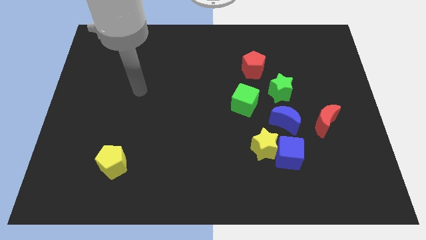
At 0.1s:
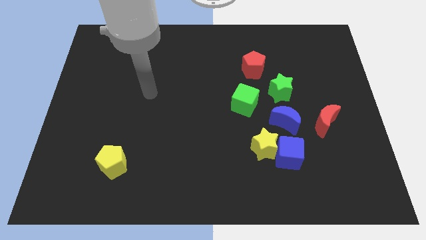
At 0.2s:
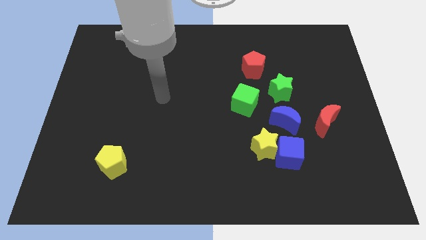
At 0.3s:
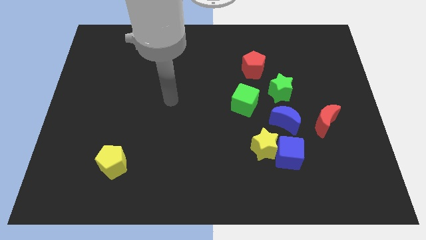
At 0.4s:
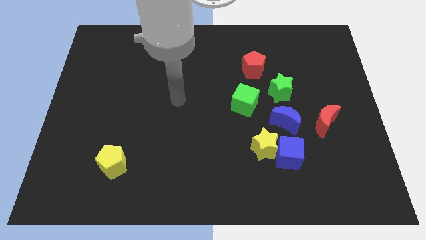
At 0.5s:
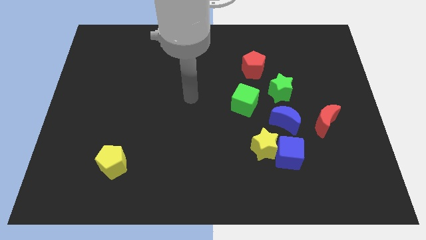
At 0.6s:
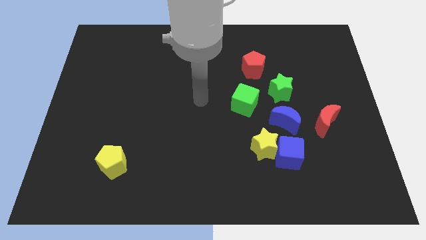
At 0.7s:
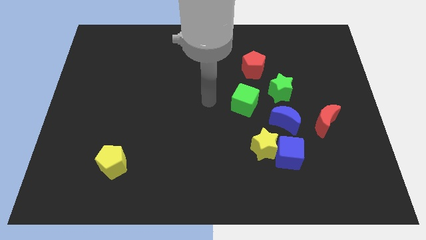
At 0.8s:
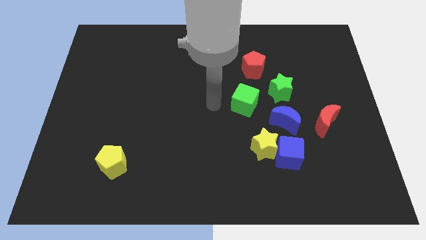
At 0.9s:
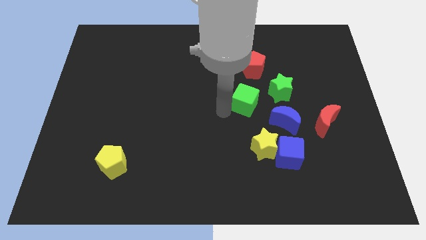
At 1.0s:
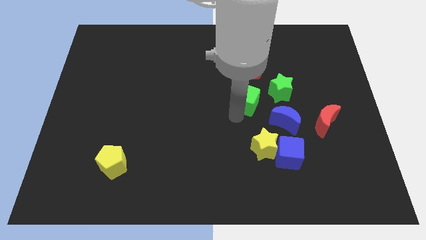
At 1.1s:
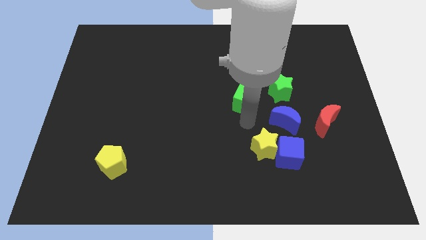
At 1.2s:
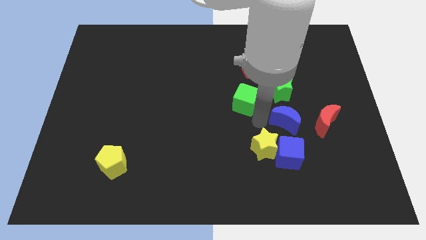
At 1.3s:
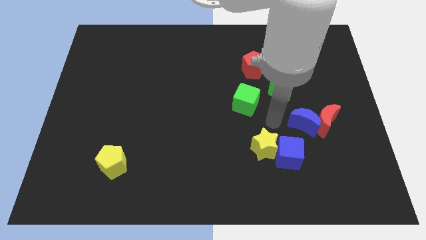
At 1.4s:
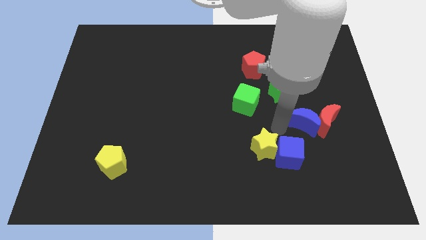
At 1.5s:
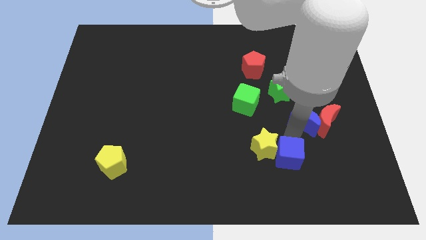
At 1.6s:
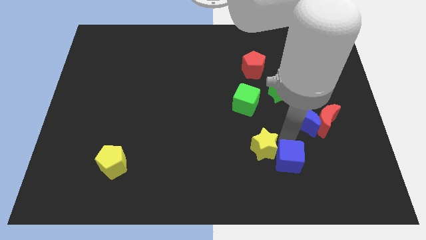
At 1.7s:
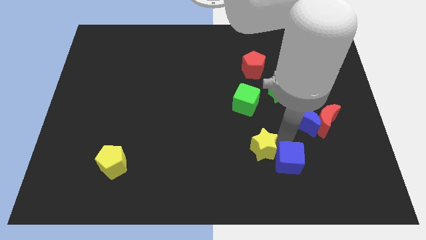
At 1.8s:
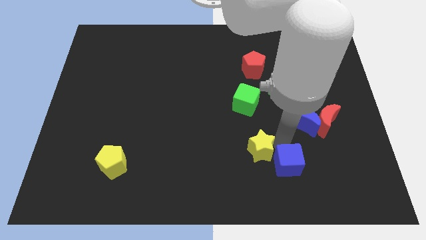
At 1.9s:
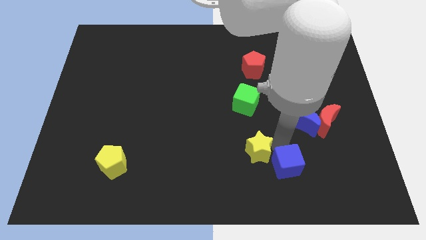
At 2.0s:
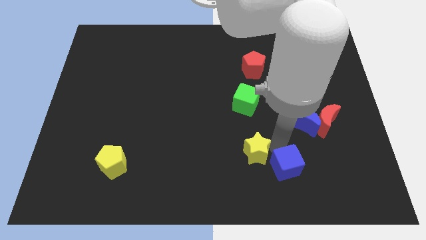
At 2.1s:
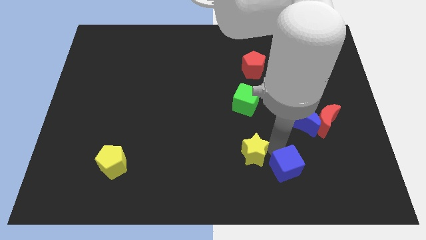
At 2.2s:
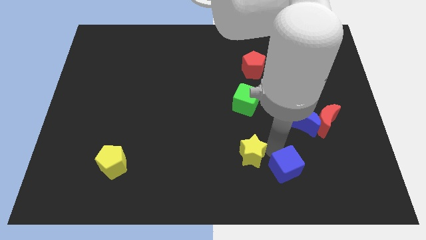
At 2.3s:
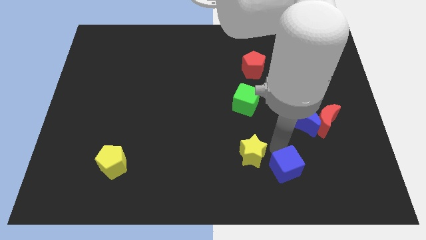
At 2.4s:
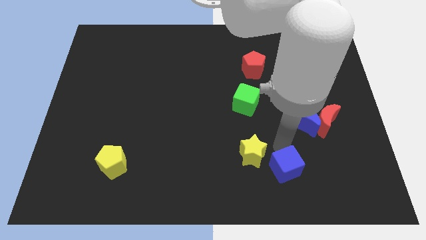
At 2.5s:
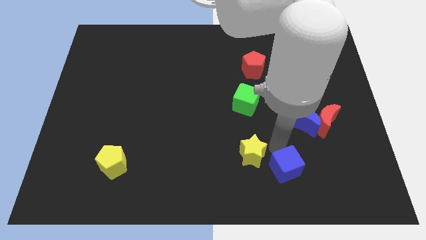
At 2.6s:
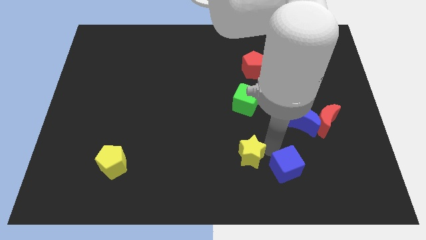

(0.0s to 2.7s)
move the yellow star away from the blue cube and blue moon

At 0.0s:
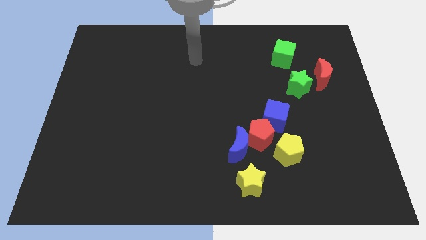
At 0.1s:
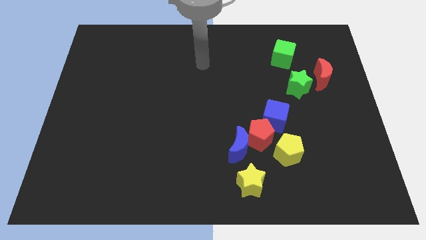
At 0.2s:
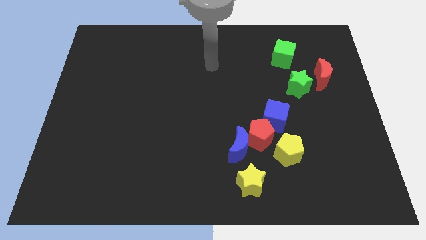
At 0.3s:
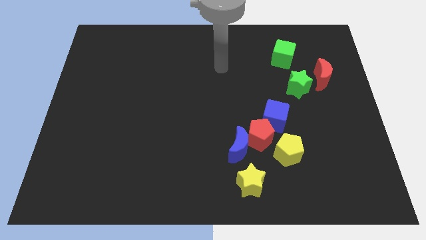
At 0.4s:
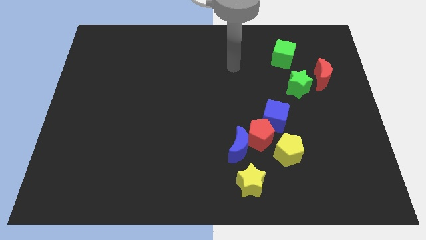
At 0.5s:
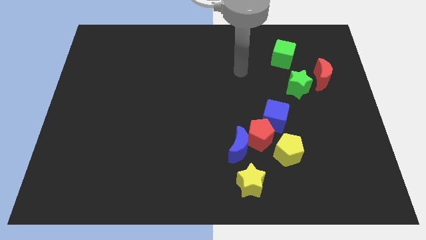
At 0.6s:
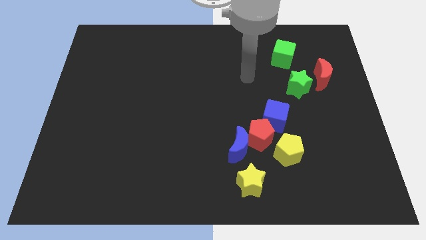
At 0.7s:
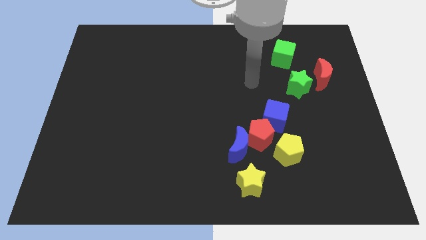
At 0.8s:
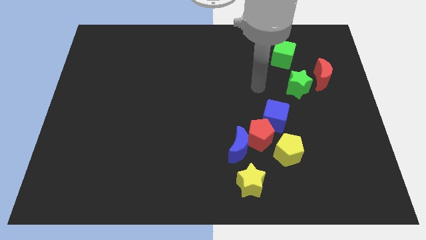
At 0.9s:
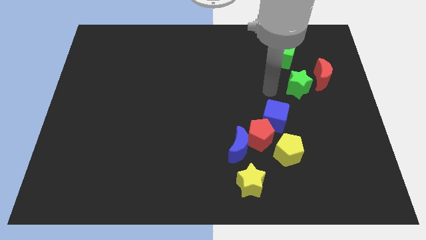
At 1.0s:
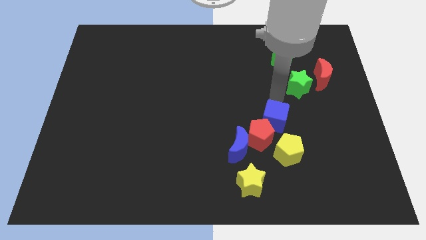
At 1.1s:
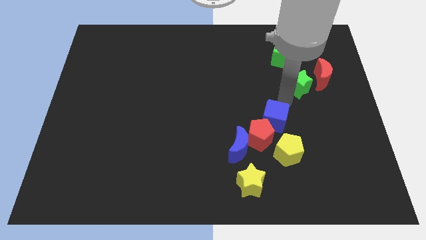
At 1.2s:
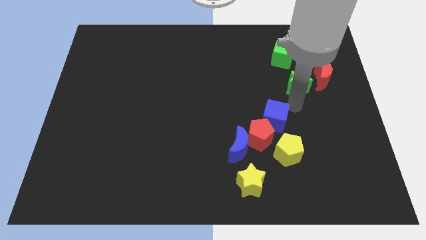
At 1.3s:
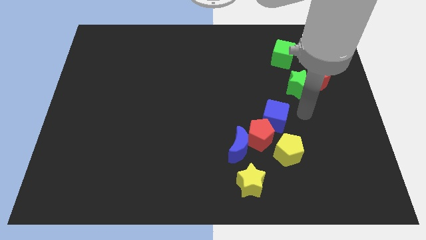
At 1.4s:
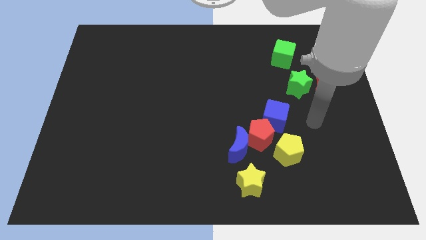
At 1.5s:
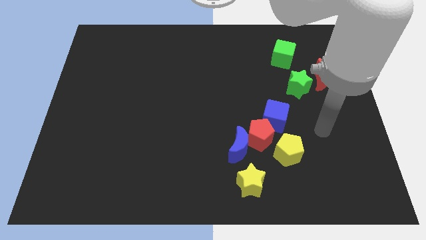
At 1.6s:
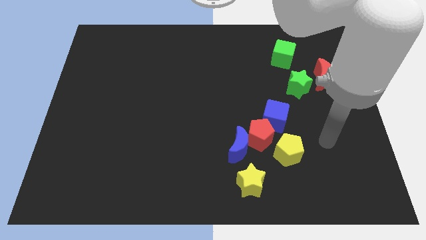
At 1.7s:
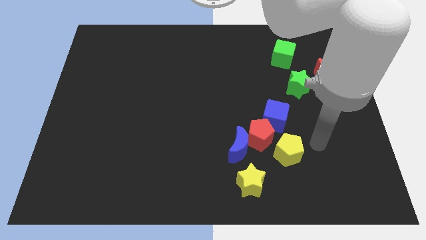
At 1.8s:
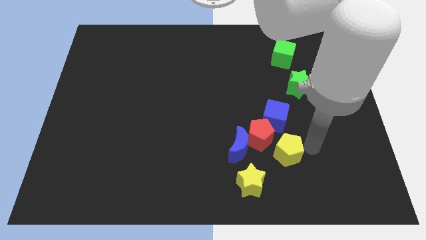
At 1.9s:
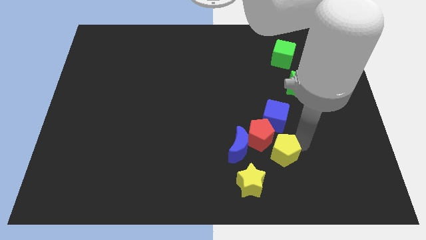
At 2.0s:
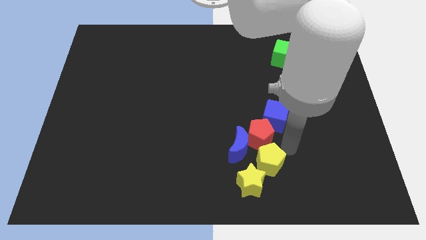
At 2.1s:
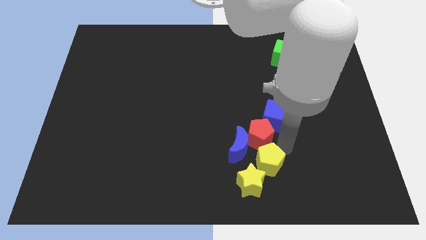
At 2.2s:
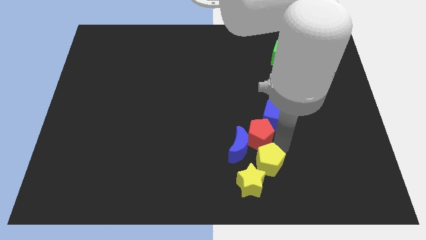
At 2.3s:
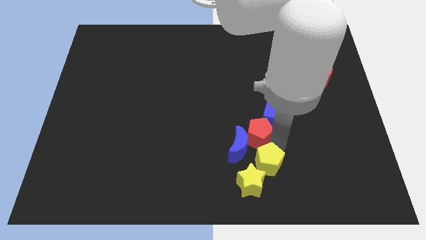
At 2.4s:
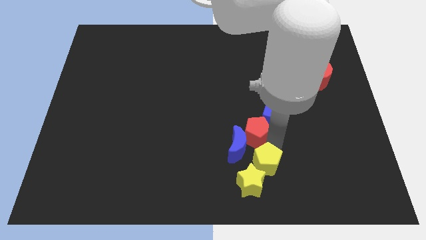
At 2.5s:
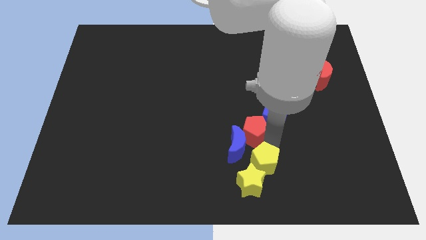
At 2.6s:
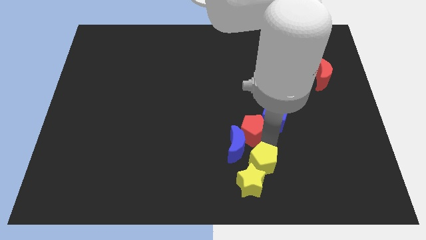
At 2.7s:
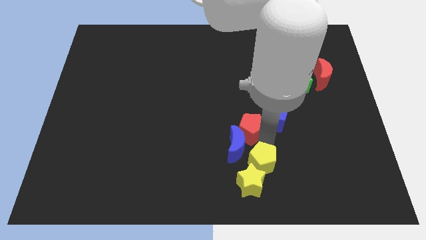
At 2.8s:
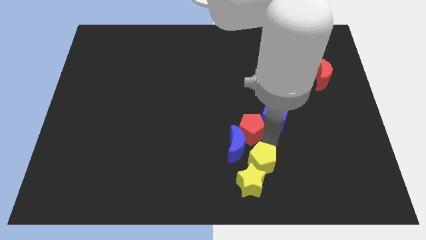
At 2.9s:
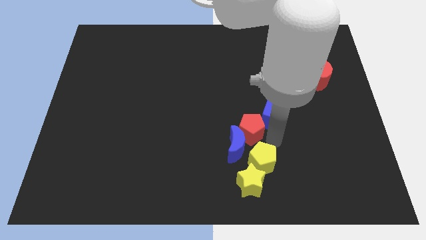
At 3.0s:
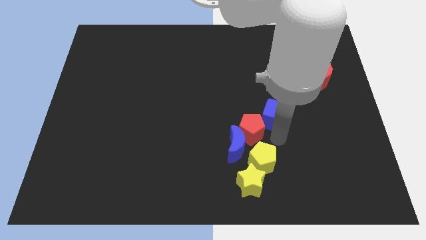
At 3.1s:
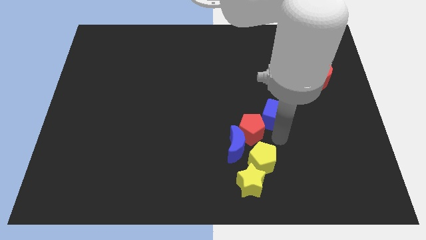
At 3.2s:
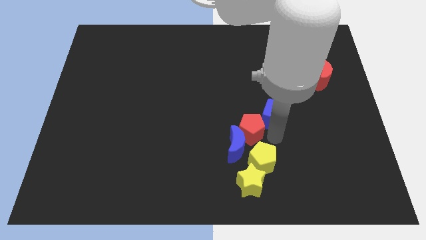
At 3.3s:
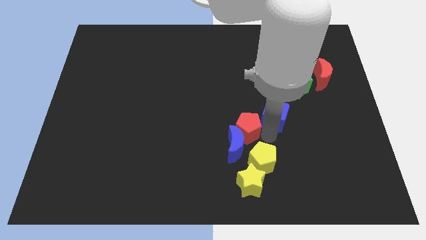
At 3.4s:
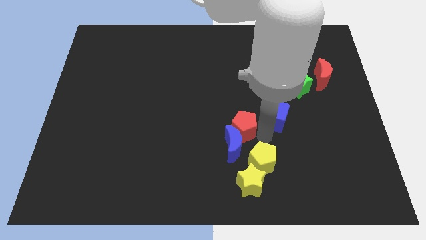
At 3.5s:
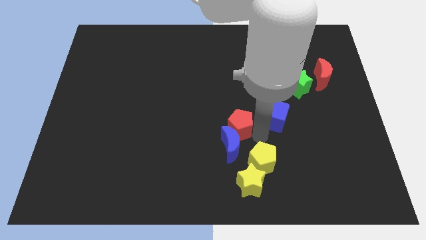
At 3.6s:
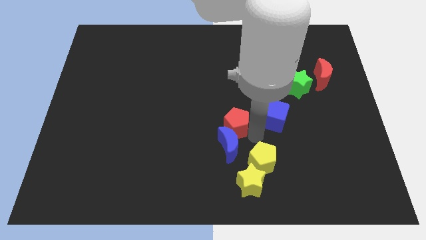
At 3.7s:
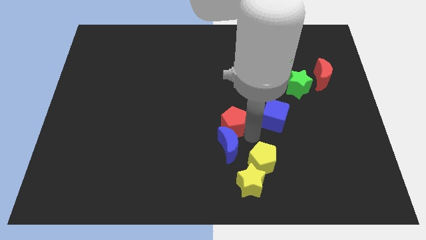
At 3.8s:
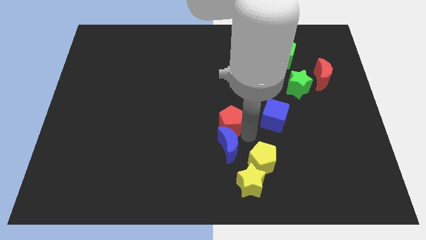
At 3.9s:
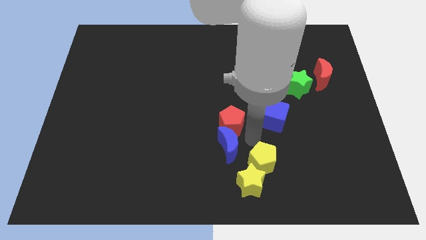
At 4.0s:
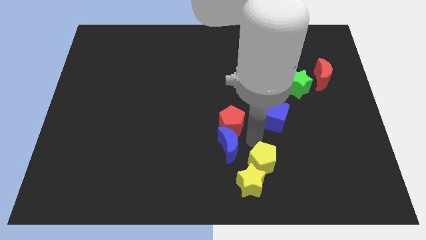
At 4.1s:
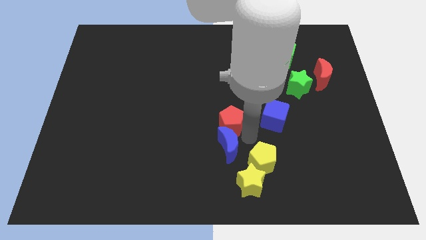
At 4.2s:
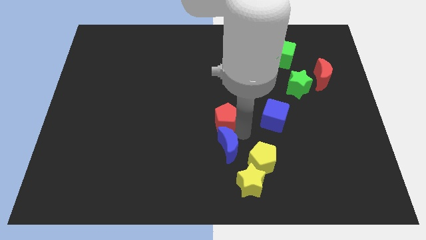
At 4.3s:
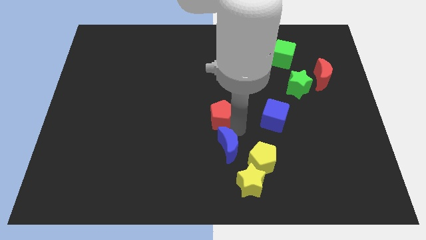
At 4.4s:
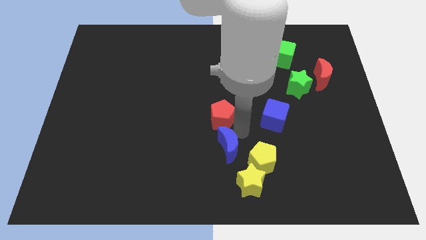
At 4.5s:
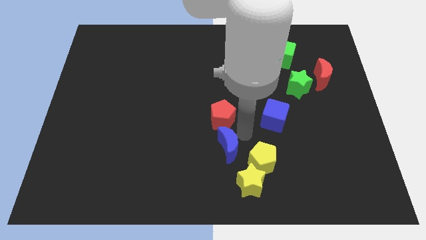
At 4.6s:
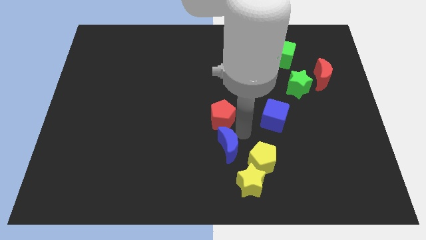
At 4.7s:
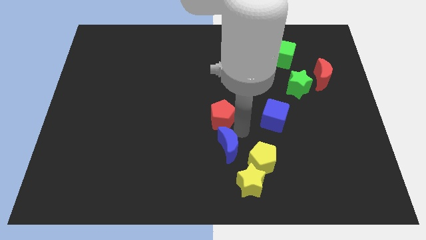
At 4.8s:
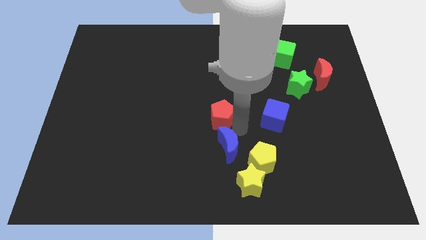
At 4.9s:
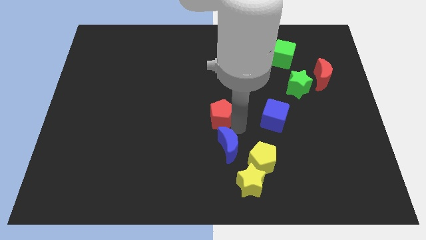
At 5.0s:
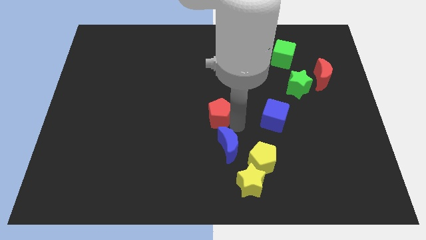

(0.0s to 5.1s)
separate the red pentagon from the blue moon, blue cube, and yellow pentagon

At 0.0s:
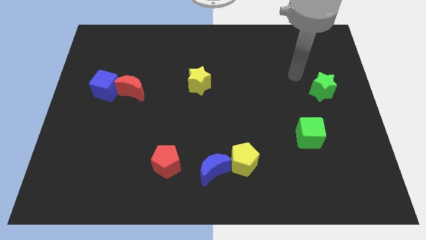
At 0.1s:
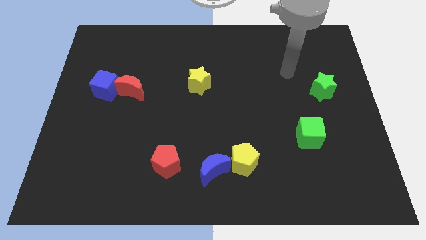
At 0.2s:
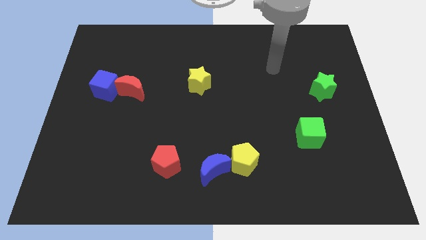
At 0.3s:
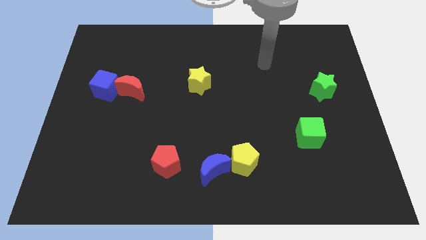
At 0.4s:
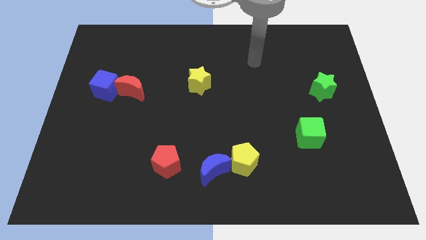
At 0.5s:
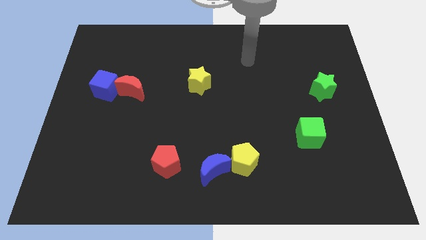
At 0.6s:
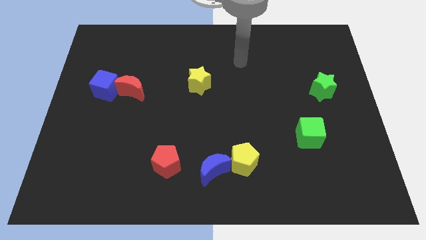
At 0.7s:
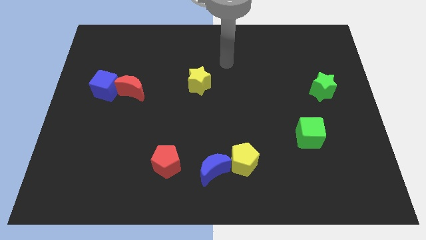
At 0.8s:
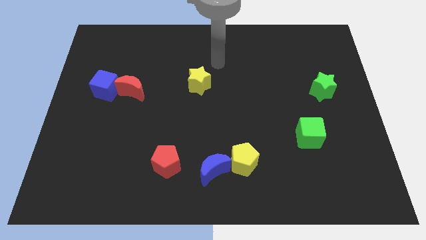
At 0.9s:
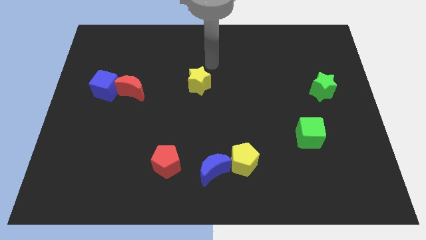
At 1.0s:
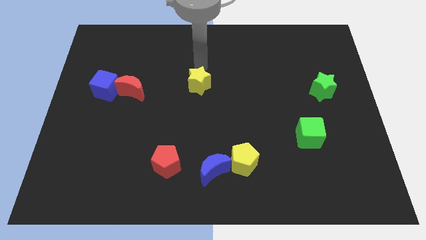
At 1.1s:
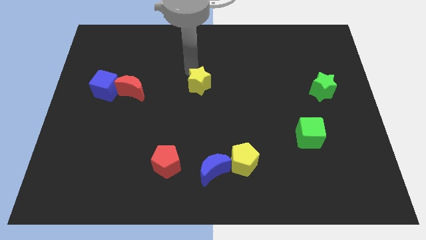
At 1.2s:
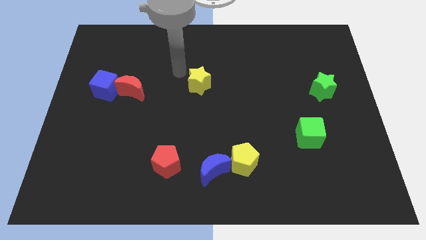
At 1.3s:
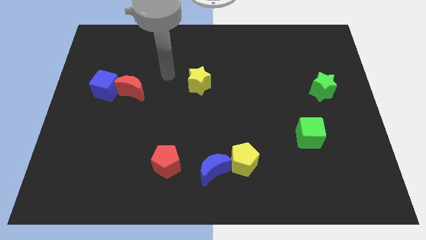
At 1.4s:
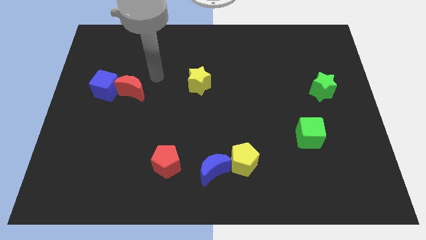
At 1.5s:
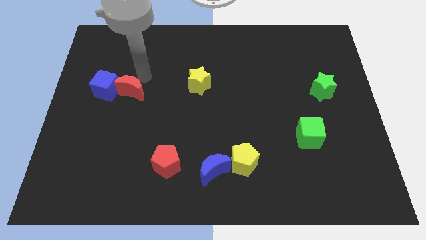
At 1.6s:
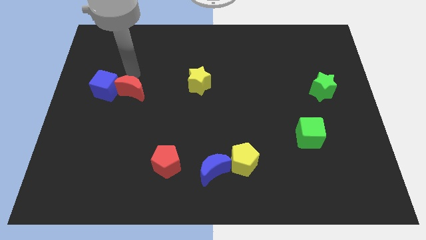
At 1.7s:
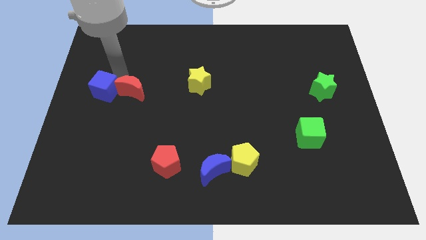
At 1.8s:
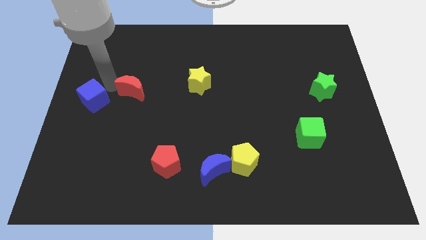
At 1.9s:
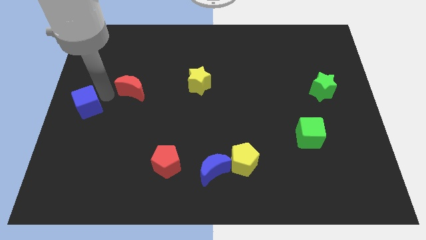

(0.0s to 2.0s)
separate the red moon from the blue cube
